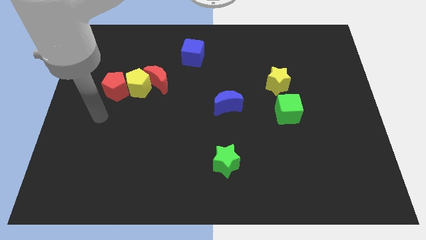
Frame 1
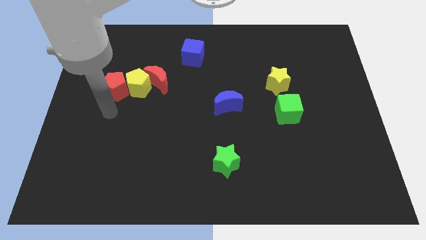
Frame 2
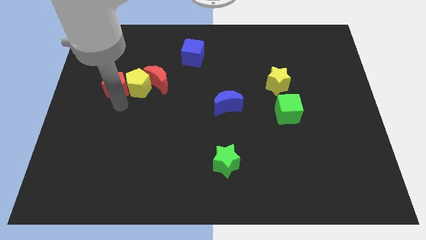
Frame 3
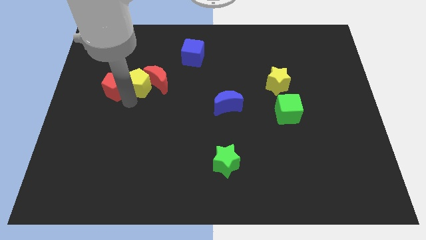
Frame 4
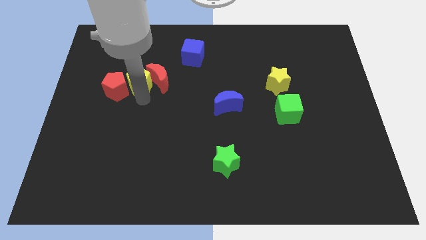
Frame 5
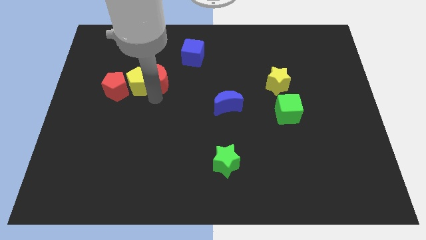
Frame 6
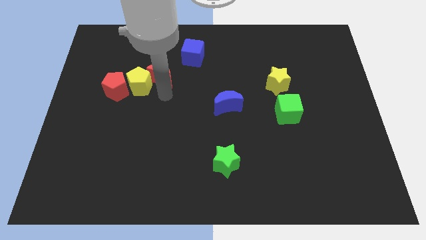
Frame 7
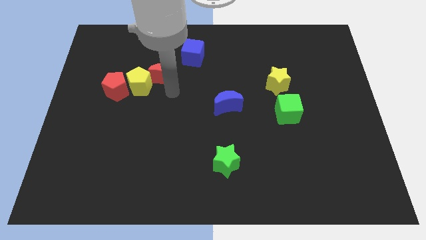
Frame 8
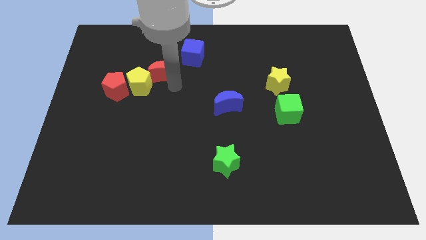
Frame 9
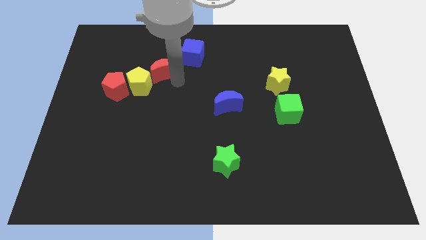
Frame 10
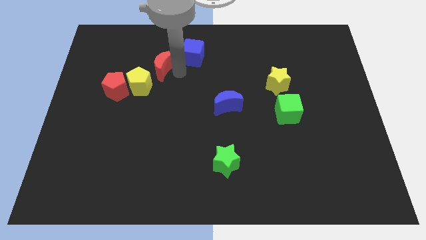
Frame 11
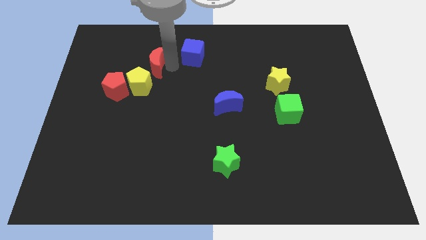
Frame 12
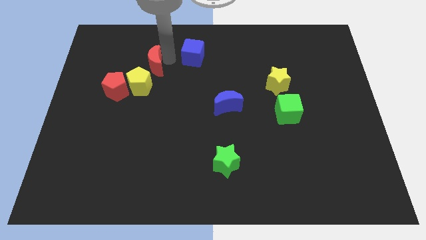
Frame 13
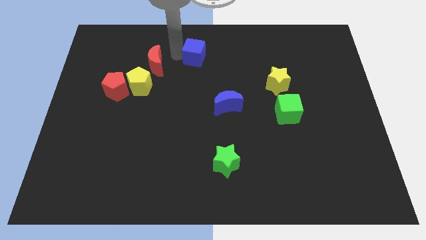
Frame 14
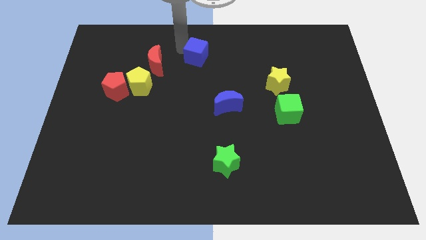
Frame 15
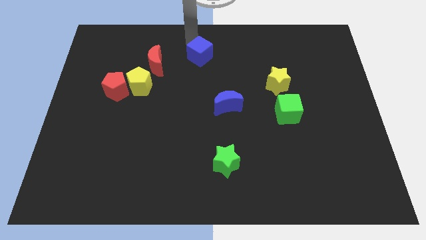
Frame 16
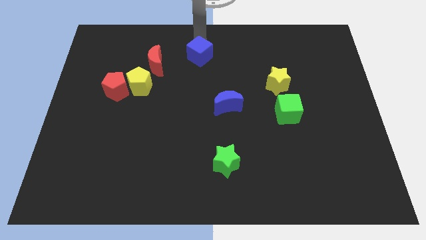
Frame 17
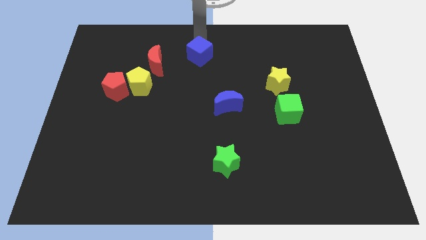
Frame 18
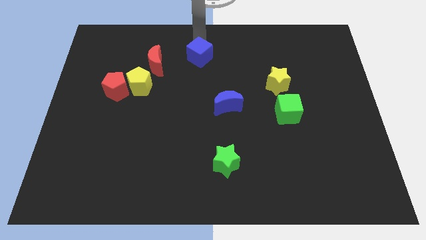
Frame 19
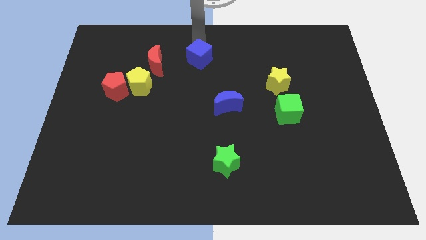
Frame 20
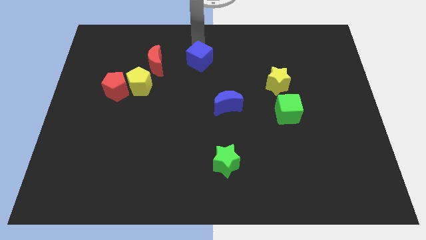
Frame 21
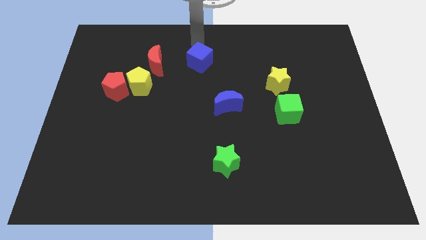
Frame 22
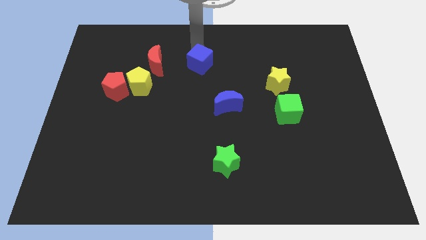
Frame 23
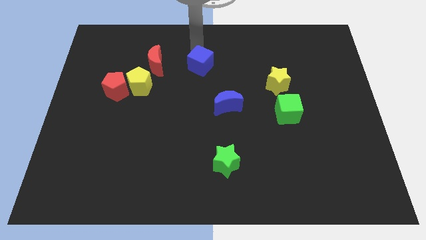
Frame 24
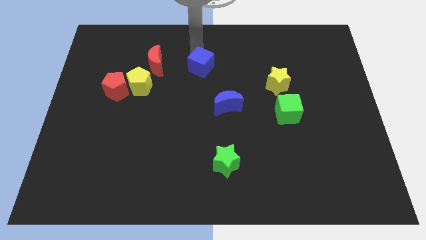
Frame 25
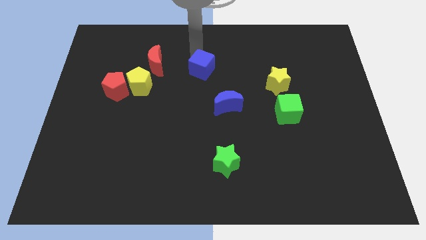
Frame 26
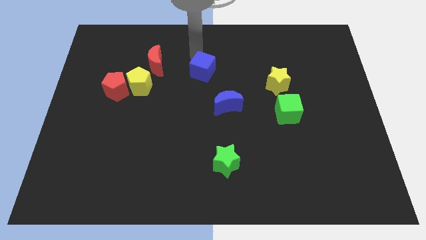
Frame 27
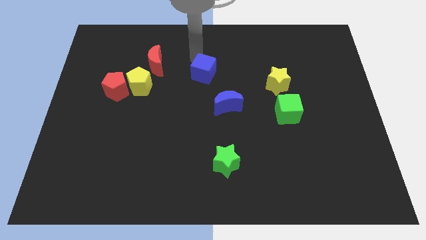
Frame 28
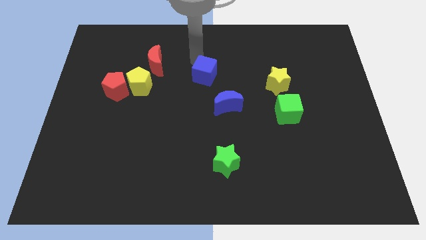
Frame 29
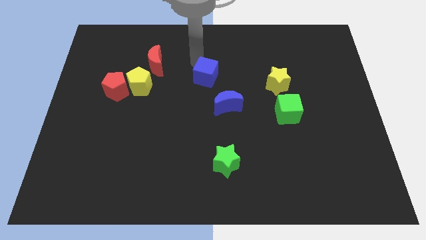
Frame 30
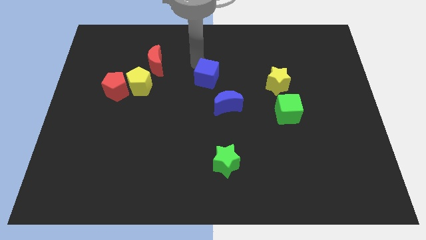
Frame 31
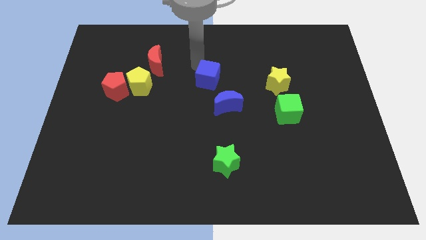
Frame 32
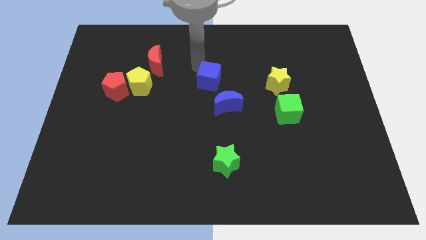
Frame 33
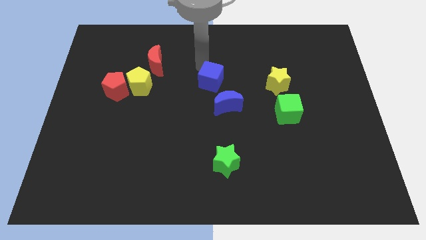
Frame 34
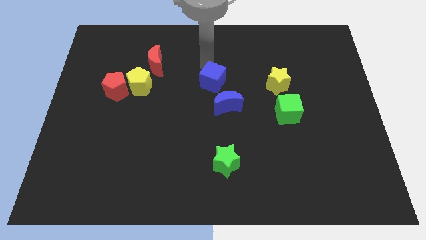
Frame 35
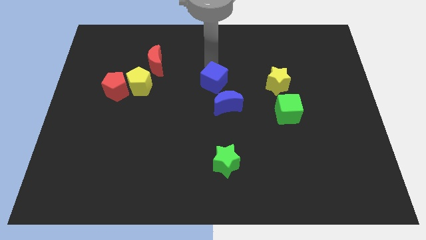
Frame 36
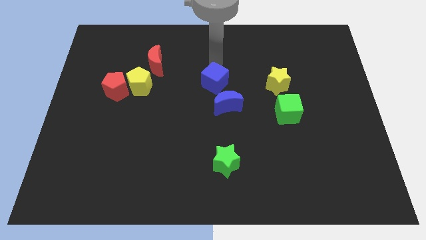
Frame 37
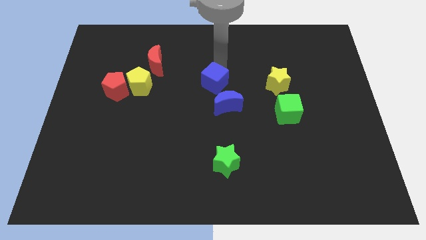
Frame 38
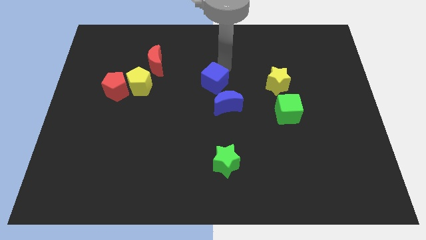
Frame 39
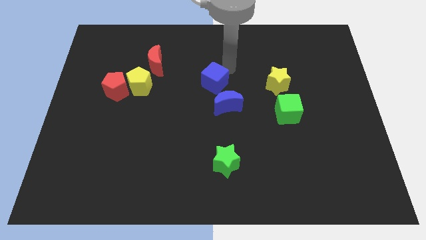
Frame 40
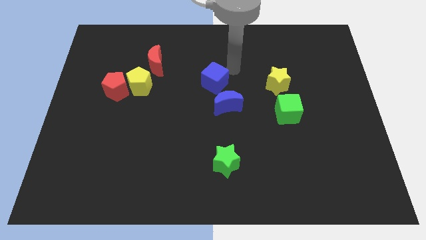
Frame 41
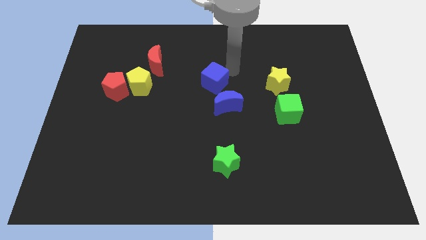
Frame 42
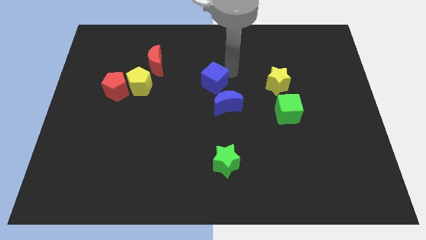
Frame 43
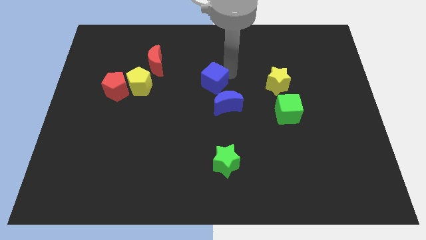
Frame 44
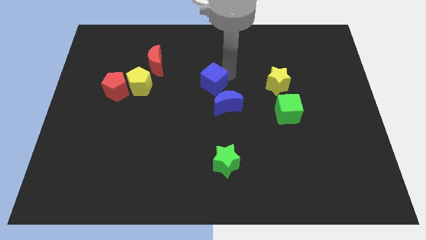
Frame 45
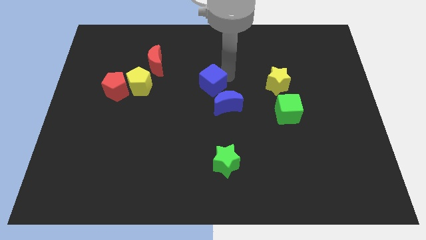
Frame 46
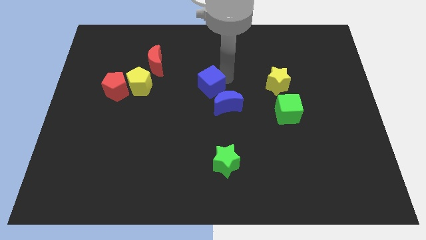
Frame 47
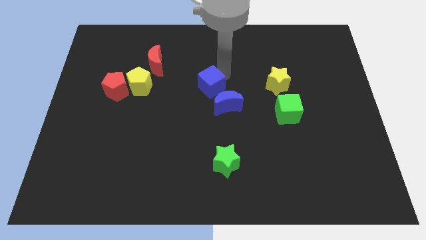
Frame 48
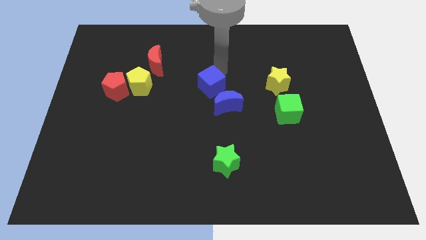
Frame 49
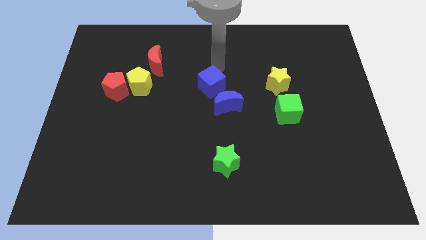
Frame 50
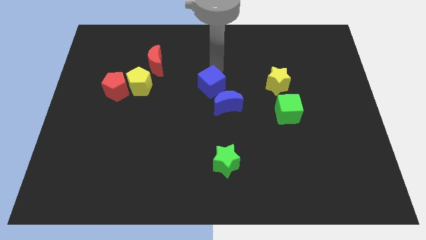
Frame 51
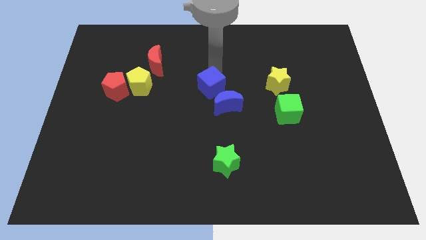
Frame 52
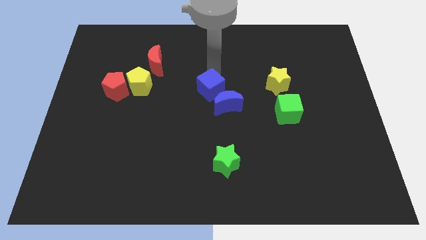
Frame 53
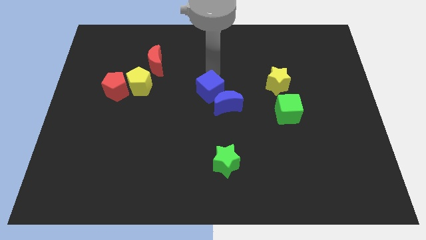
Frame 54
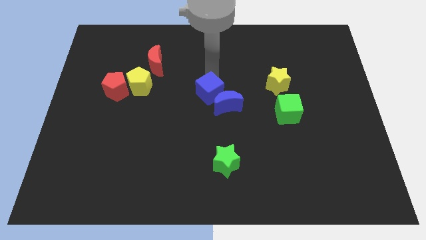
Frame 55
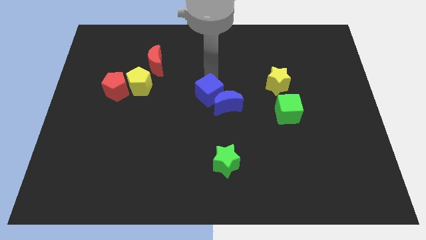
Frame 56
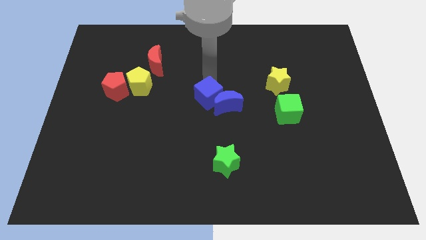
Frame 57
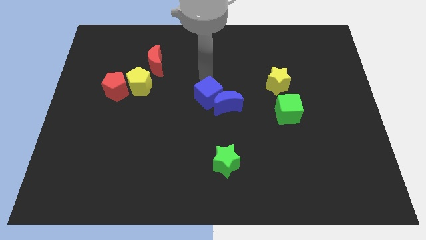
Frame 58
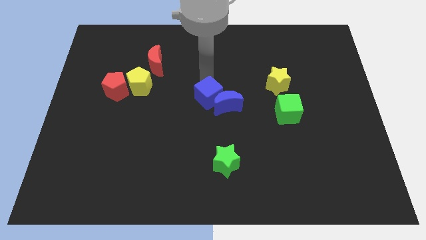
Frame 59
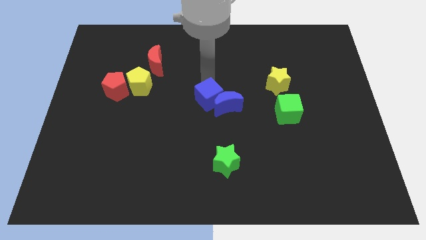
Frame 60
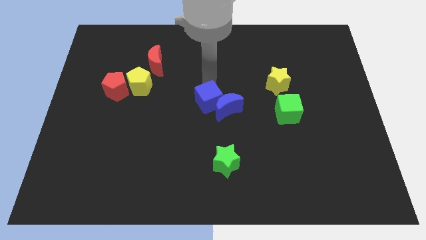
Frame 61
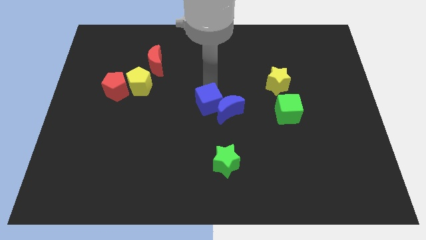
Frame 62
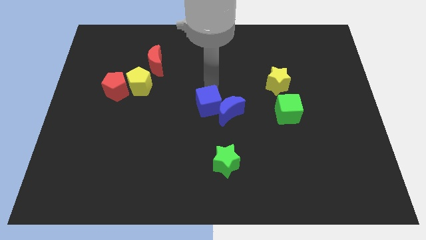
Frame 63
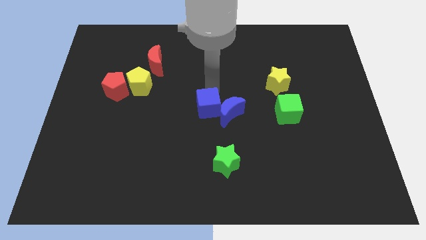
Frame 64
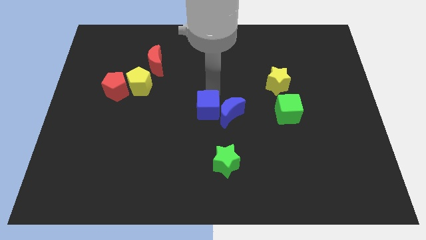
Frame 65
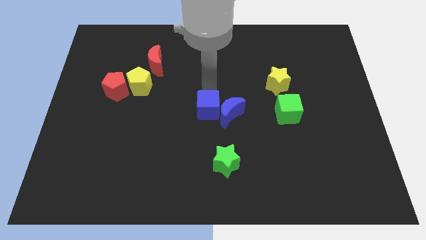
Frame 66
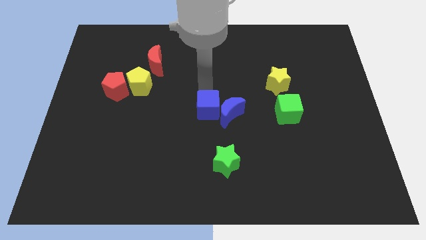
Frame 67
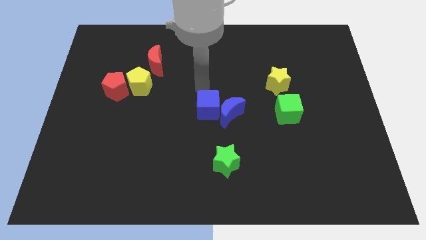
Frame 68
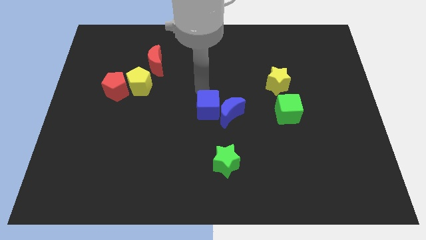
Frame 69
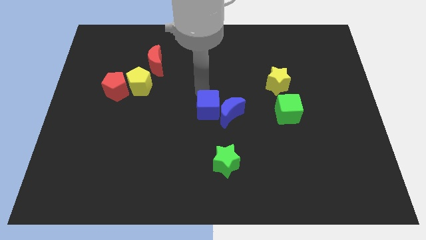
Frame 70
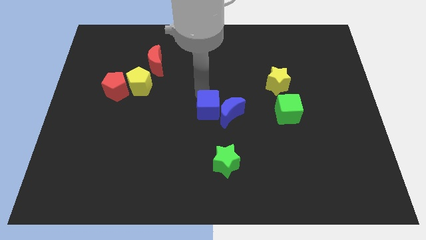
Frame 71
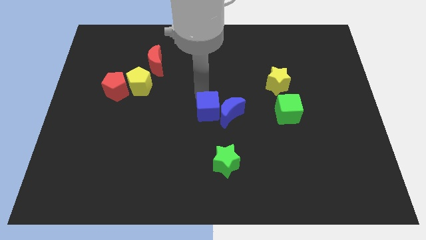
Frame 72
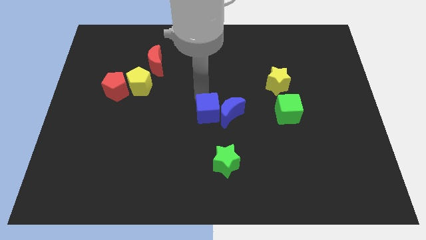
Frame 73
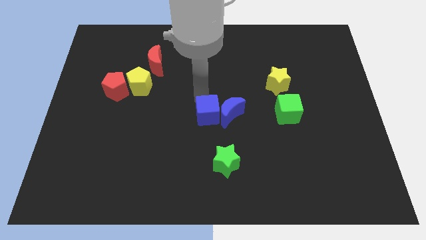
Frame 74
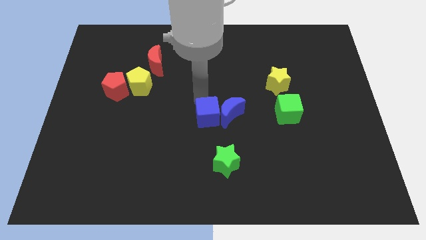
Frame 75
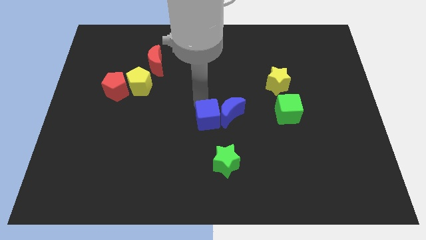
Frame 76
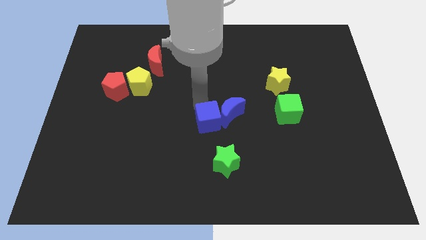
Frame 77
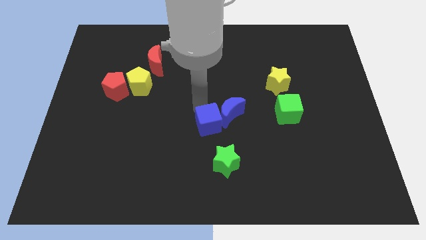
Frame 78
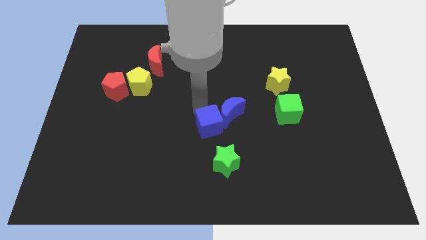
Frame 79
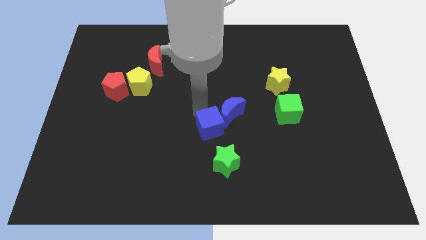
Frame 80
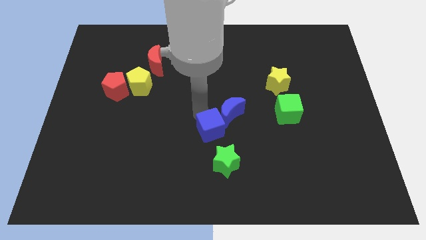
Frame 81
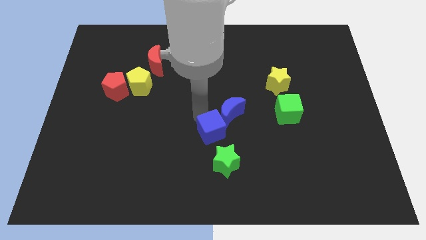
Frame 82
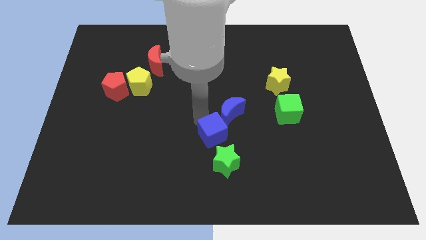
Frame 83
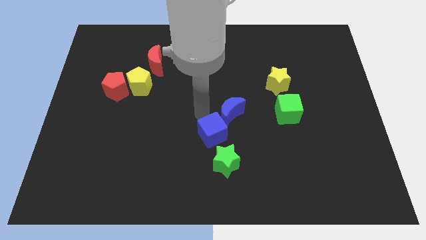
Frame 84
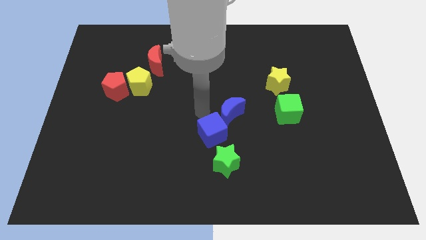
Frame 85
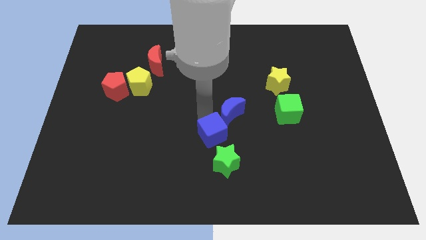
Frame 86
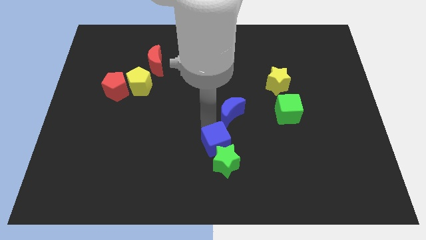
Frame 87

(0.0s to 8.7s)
push the blue cube next to the green star
